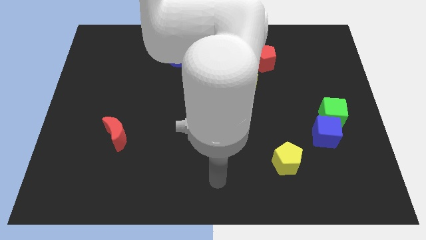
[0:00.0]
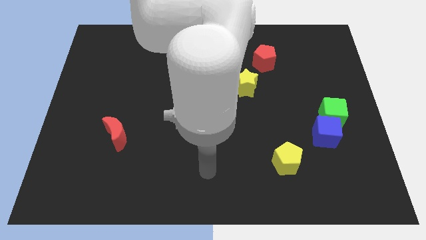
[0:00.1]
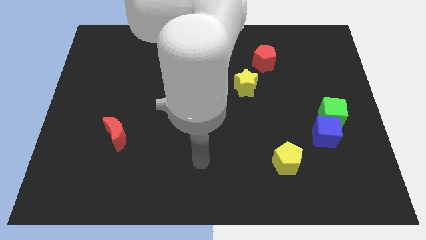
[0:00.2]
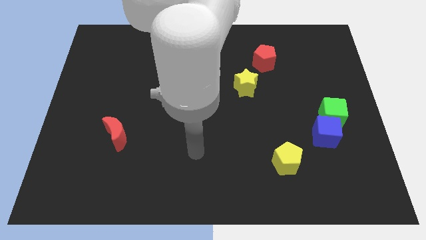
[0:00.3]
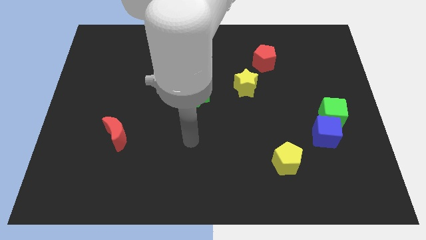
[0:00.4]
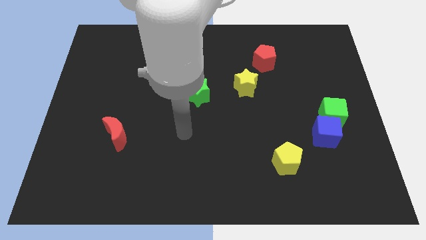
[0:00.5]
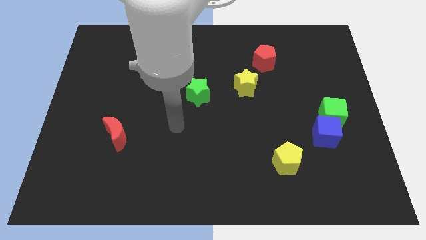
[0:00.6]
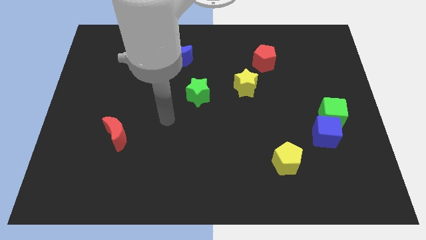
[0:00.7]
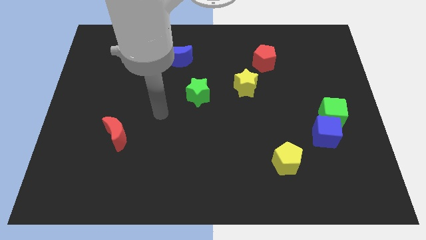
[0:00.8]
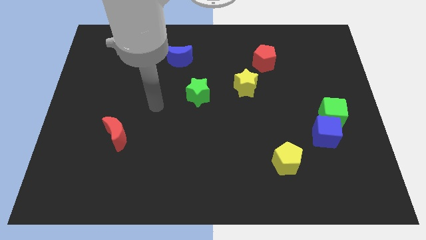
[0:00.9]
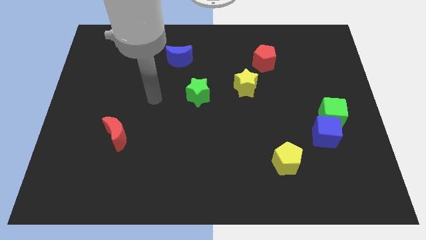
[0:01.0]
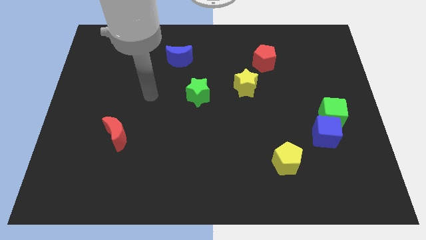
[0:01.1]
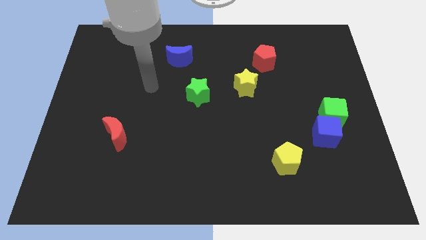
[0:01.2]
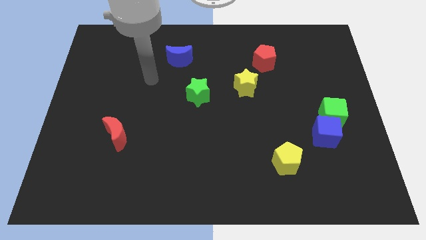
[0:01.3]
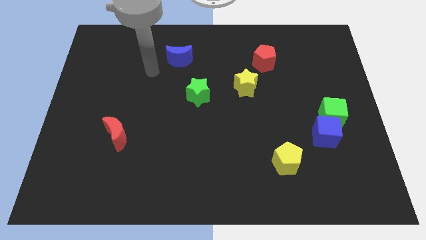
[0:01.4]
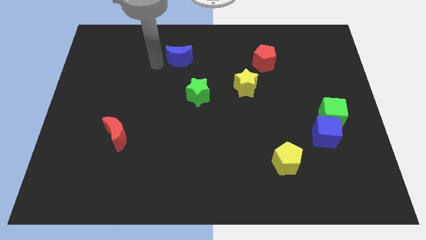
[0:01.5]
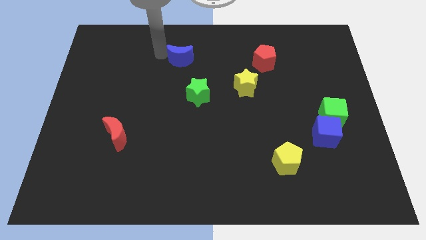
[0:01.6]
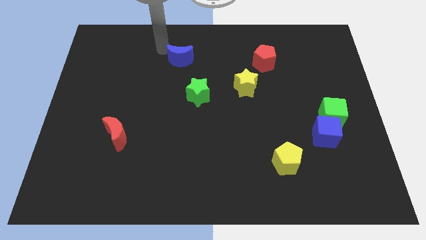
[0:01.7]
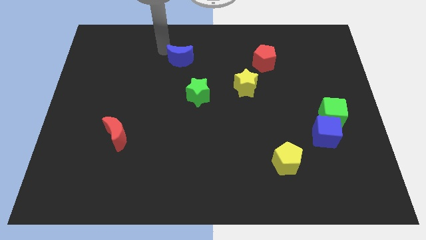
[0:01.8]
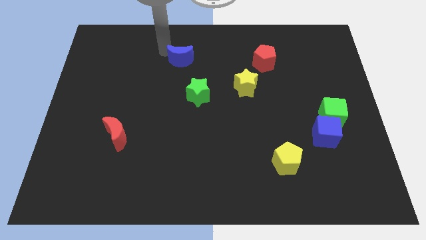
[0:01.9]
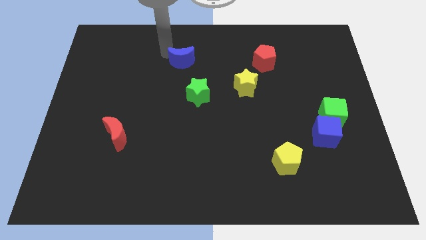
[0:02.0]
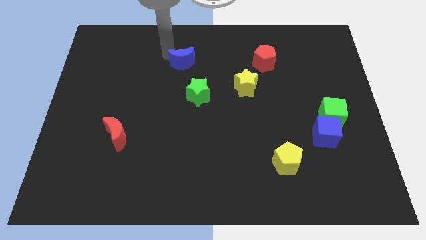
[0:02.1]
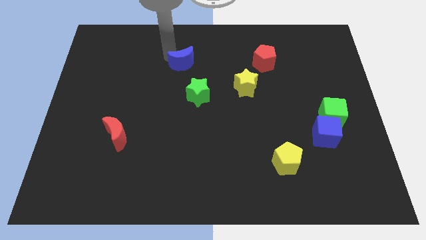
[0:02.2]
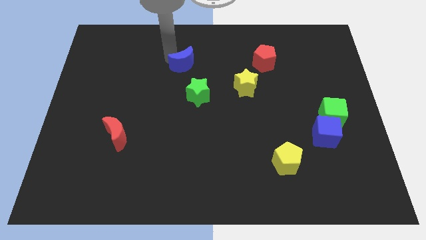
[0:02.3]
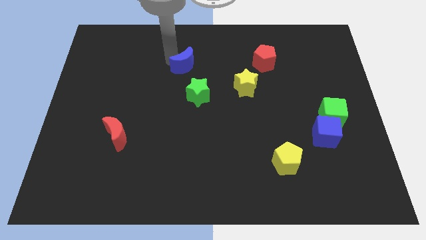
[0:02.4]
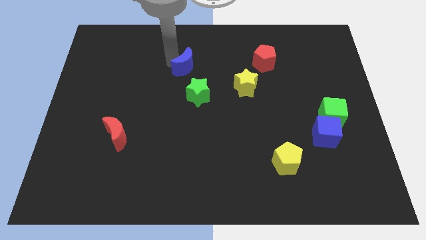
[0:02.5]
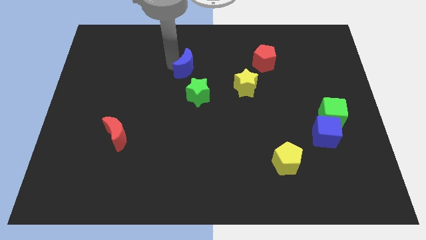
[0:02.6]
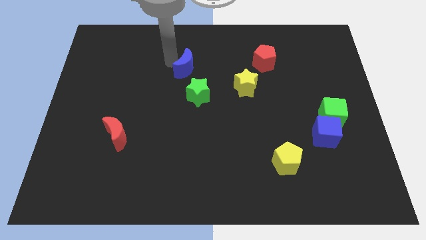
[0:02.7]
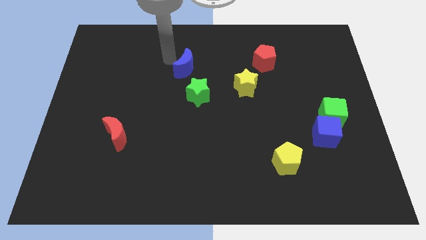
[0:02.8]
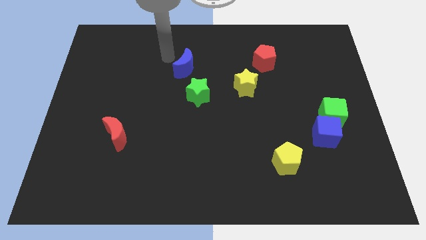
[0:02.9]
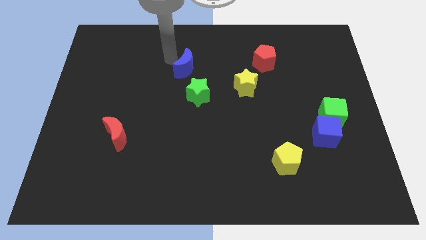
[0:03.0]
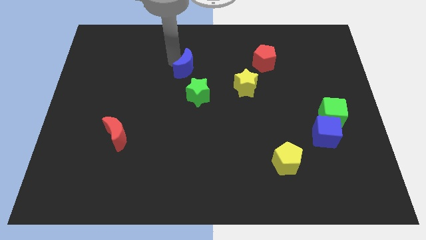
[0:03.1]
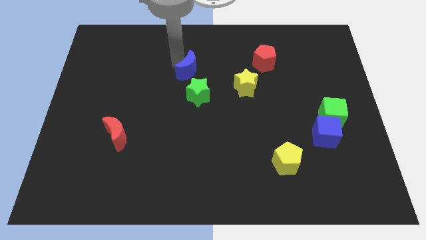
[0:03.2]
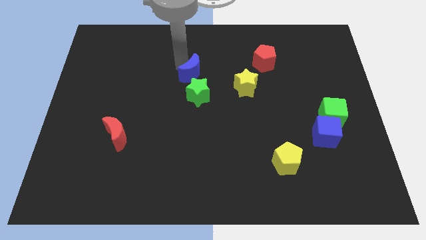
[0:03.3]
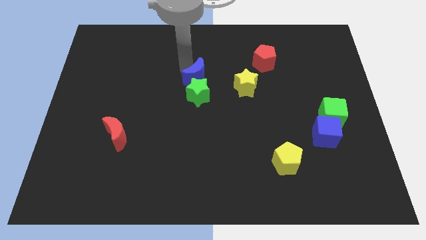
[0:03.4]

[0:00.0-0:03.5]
slide the blue moon downwards and right a bit

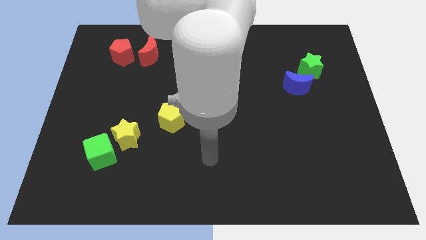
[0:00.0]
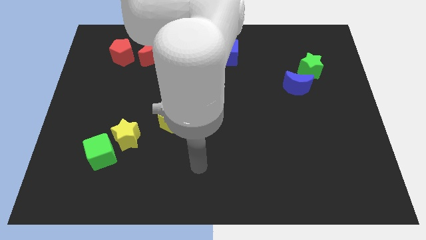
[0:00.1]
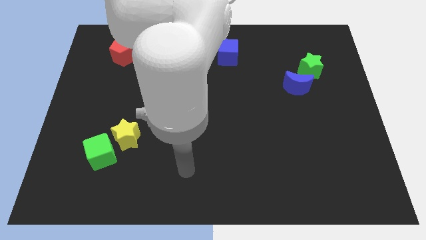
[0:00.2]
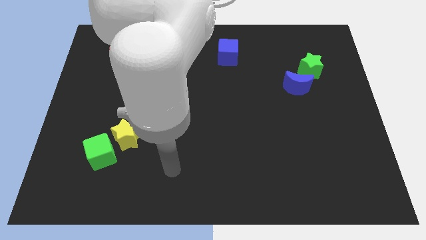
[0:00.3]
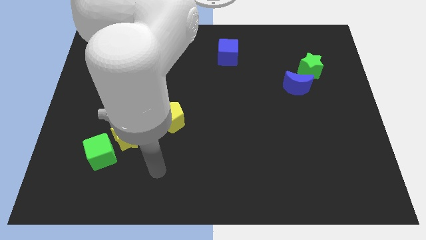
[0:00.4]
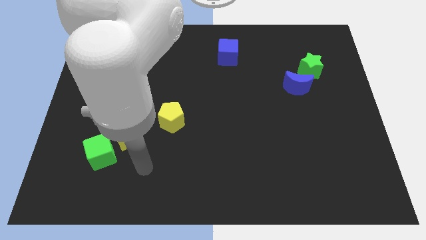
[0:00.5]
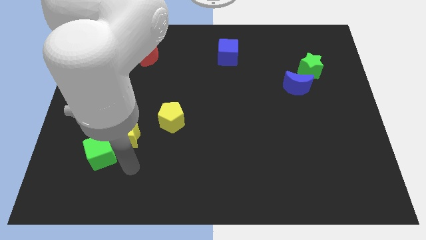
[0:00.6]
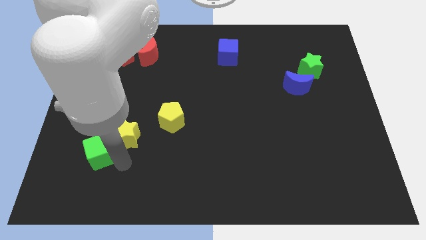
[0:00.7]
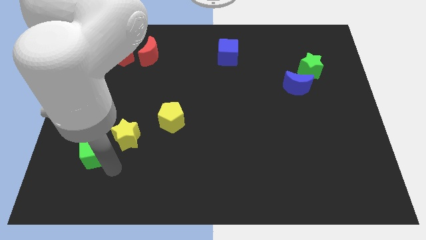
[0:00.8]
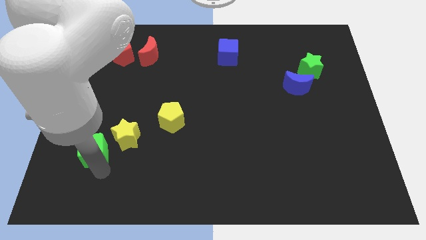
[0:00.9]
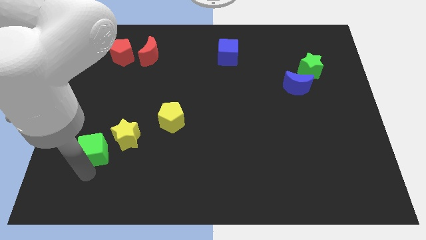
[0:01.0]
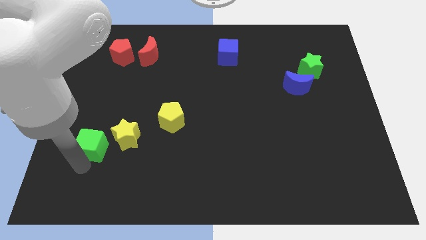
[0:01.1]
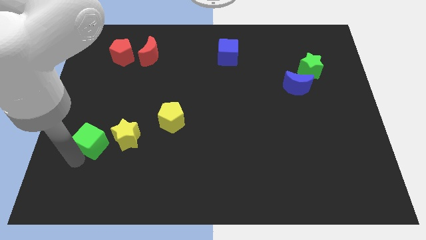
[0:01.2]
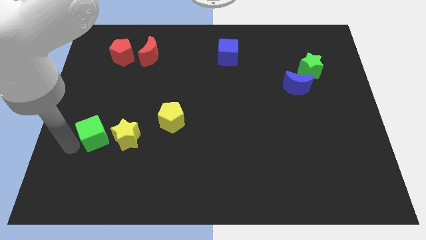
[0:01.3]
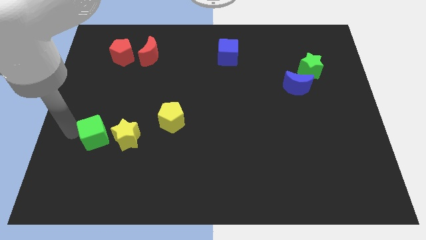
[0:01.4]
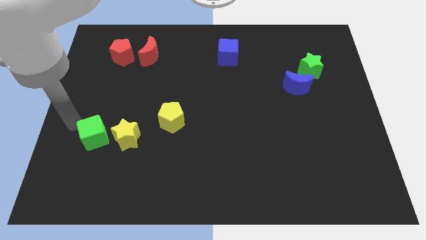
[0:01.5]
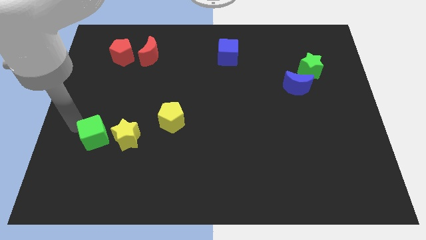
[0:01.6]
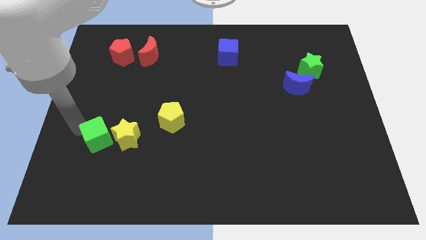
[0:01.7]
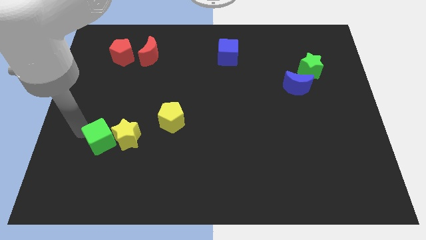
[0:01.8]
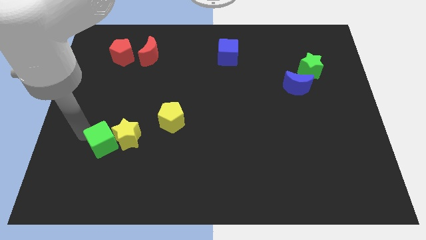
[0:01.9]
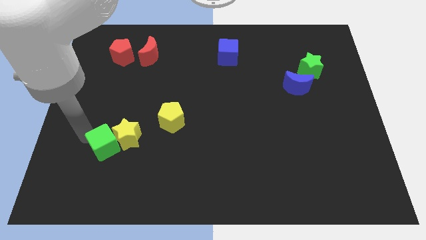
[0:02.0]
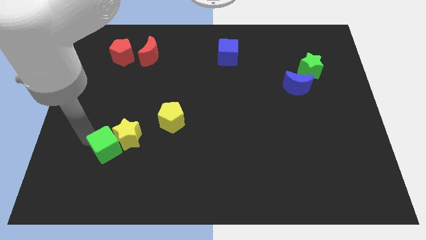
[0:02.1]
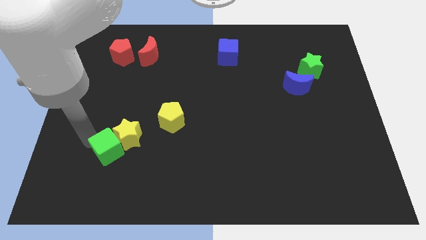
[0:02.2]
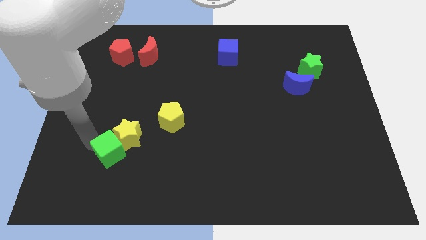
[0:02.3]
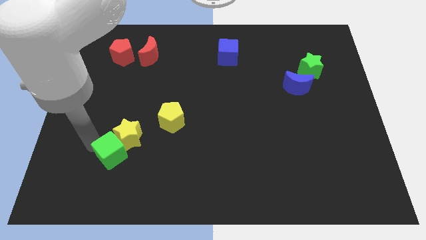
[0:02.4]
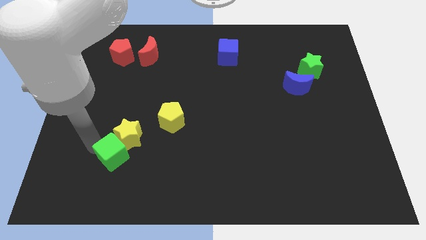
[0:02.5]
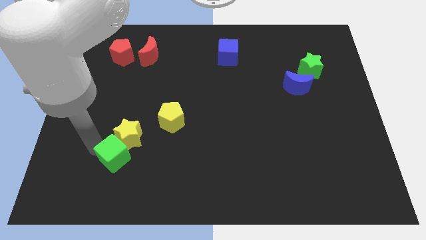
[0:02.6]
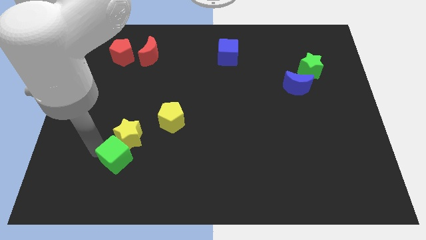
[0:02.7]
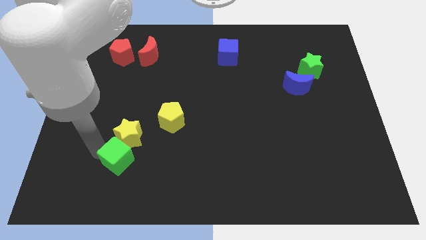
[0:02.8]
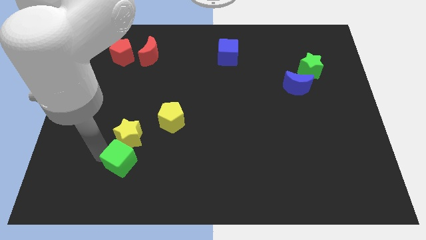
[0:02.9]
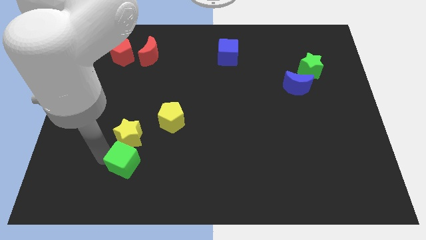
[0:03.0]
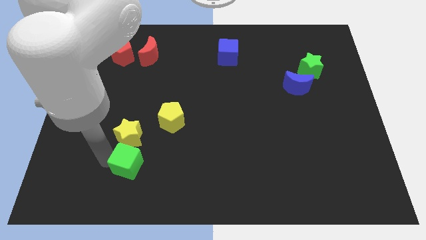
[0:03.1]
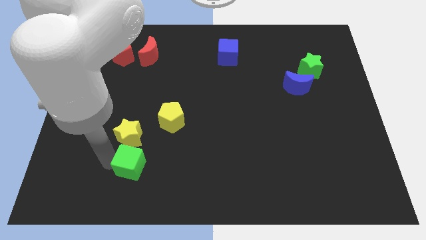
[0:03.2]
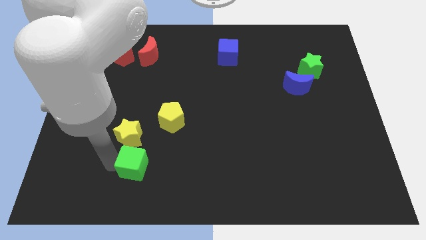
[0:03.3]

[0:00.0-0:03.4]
slightly slide the green cube to the right

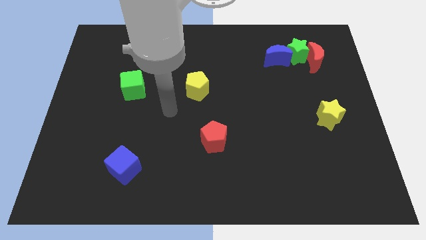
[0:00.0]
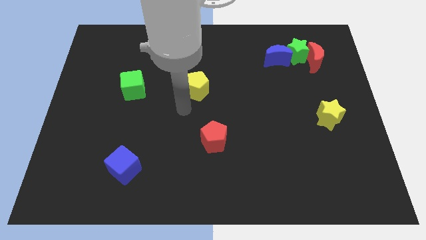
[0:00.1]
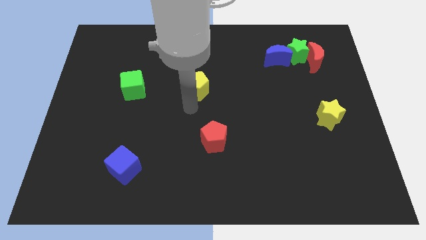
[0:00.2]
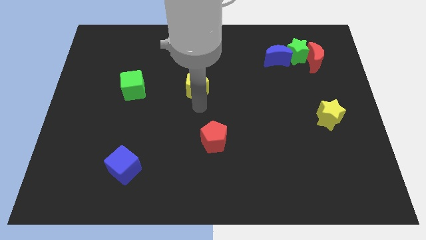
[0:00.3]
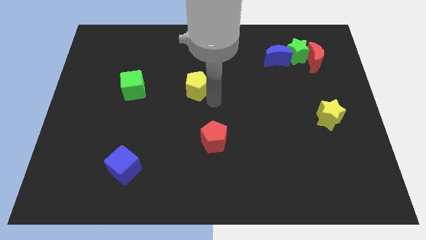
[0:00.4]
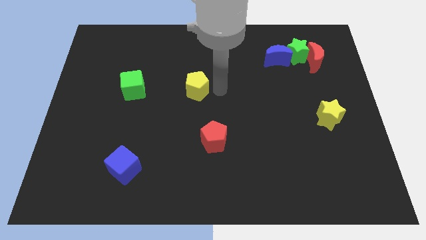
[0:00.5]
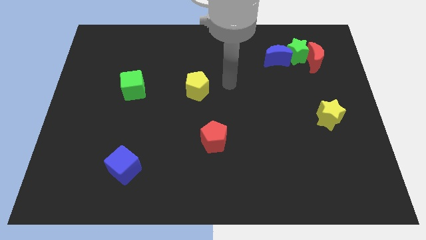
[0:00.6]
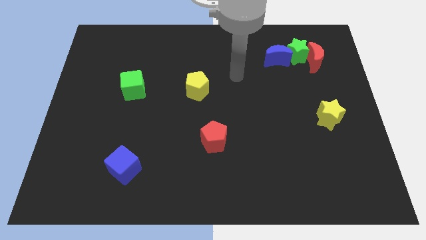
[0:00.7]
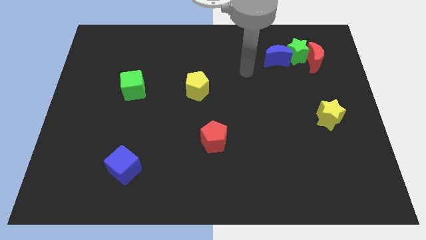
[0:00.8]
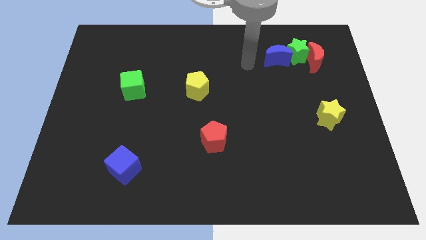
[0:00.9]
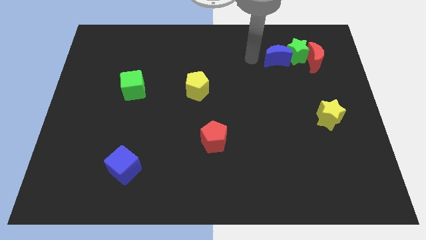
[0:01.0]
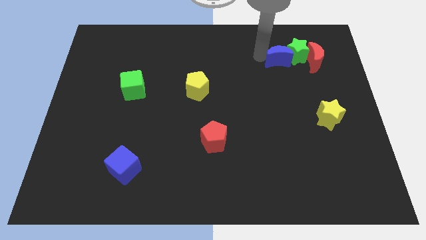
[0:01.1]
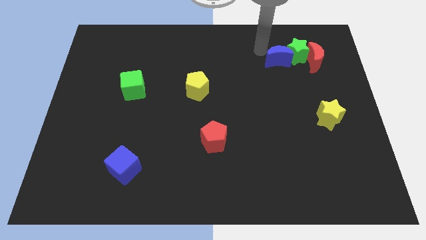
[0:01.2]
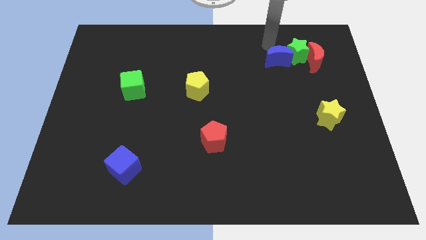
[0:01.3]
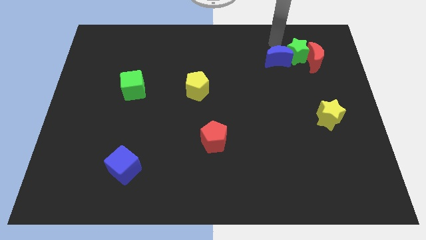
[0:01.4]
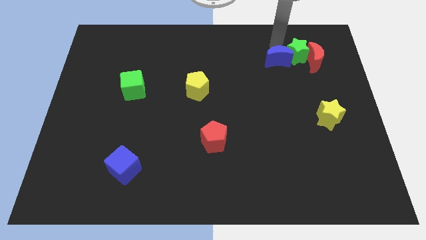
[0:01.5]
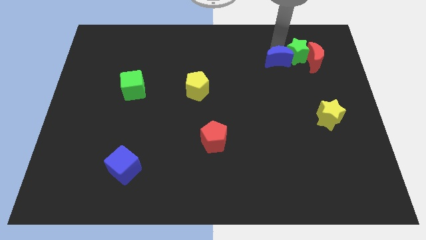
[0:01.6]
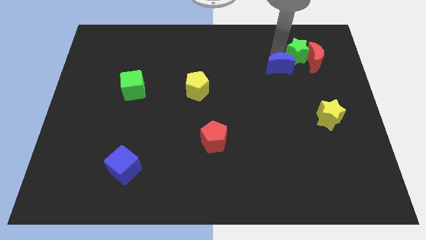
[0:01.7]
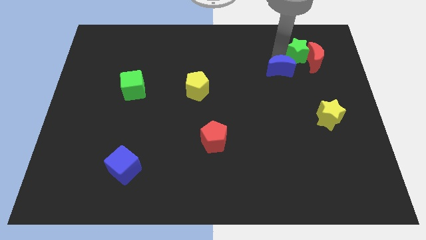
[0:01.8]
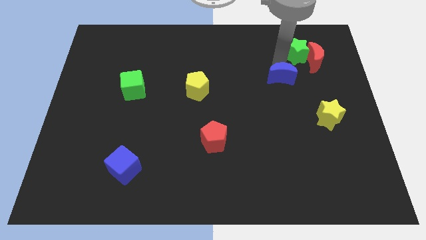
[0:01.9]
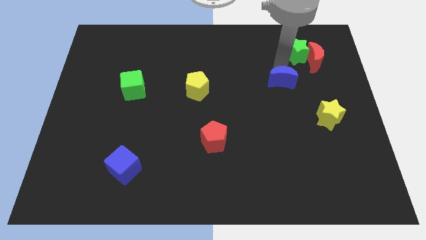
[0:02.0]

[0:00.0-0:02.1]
slide the blue moon down a bit
